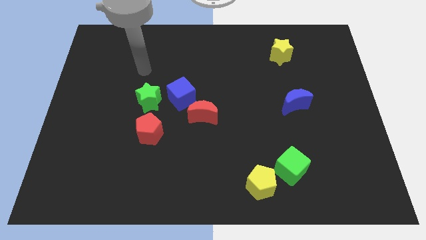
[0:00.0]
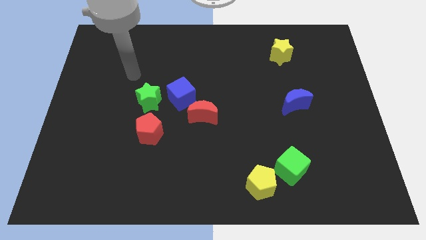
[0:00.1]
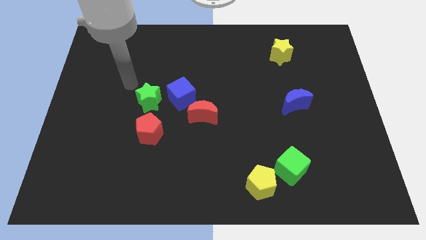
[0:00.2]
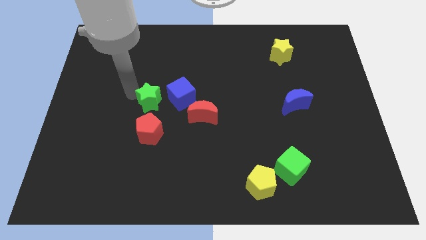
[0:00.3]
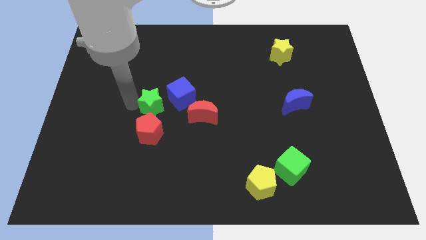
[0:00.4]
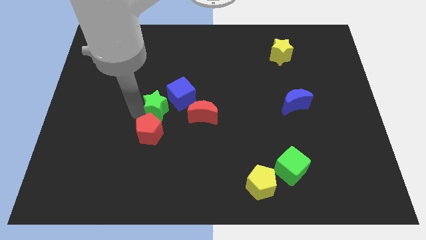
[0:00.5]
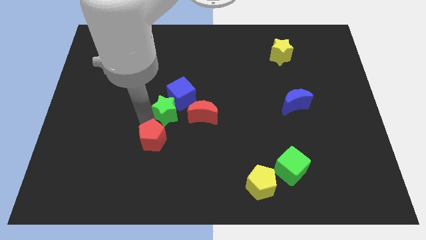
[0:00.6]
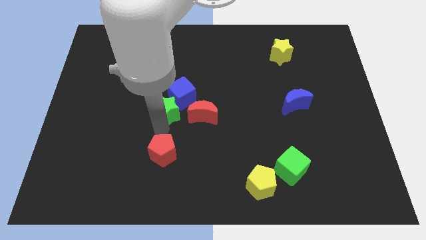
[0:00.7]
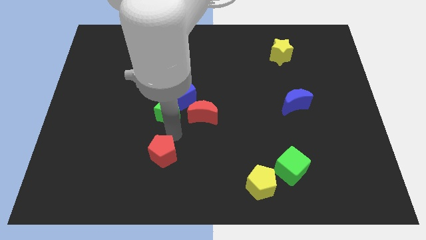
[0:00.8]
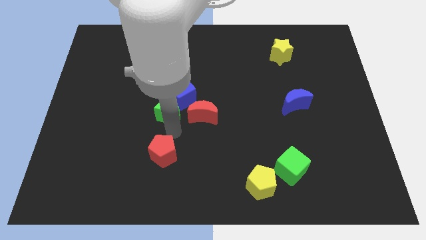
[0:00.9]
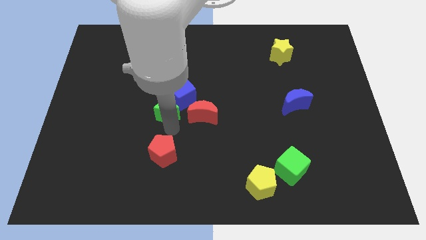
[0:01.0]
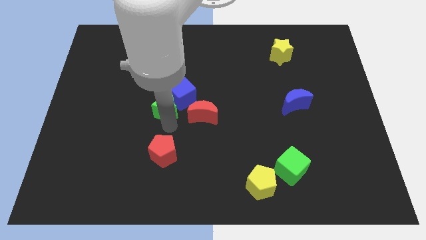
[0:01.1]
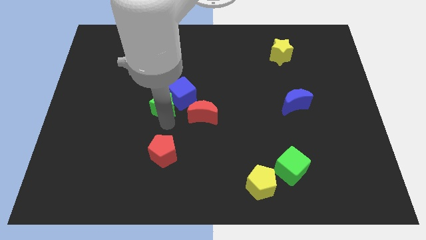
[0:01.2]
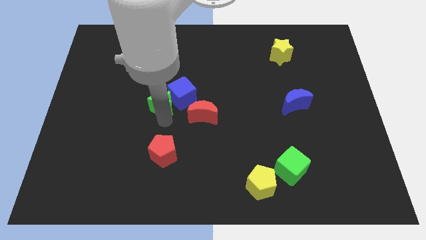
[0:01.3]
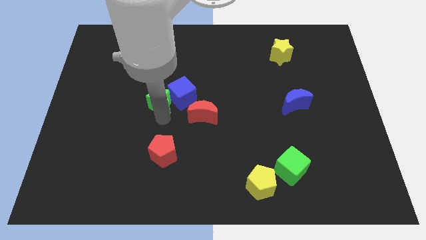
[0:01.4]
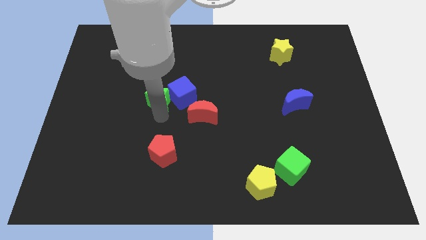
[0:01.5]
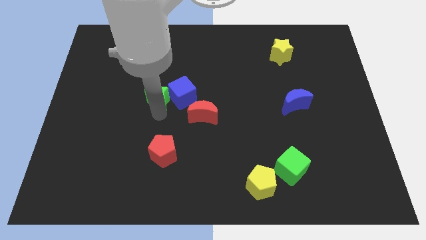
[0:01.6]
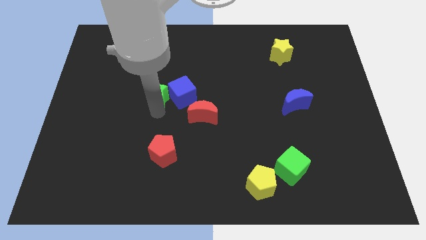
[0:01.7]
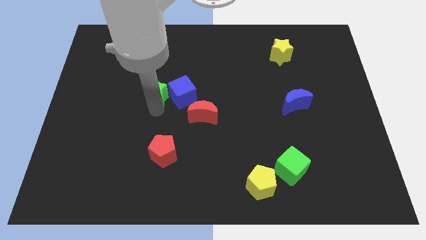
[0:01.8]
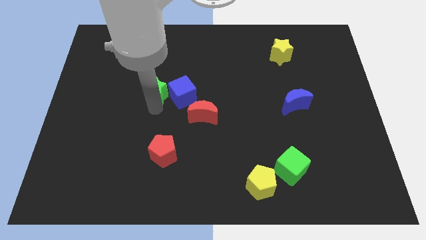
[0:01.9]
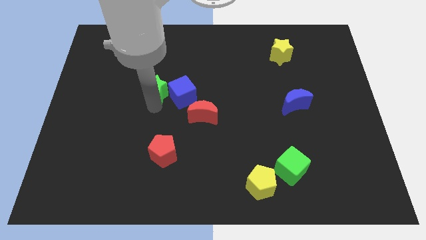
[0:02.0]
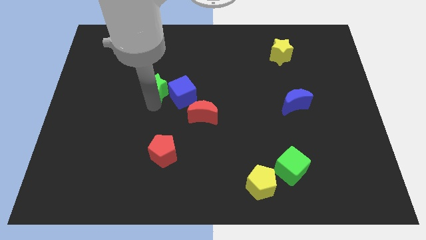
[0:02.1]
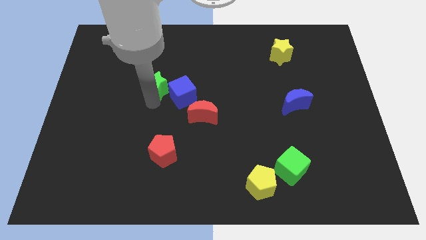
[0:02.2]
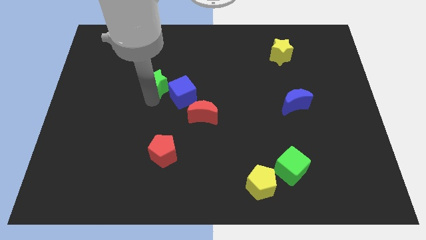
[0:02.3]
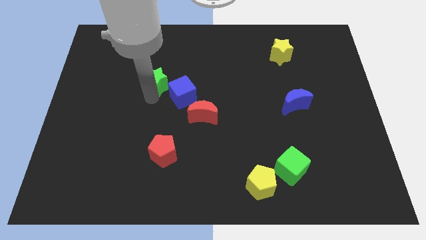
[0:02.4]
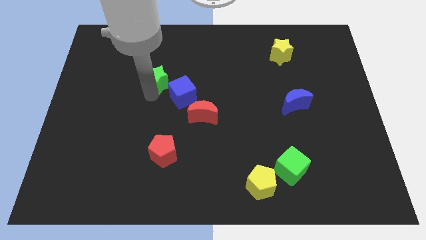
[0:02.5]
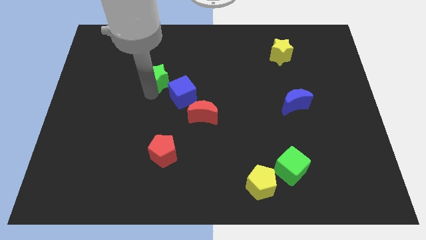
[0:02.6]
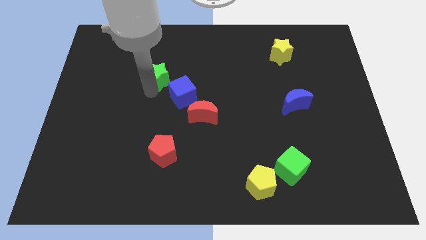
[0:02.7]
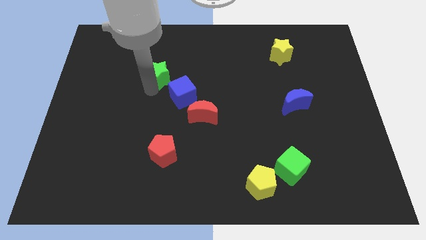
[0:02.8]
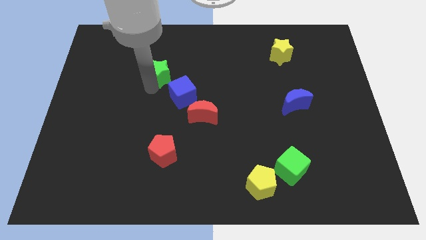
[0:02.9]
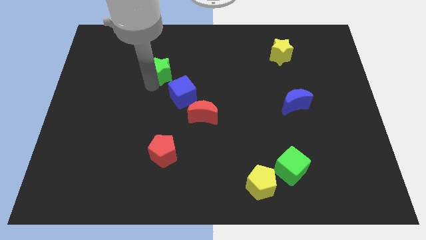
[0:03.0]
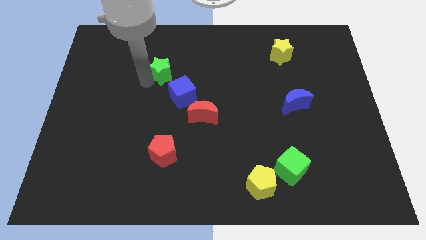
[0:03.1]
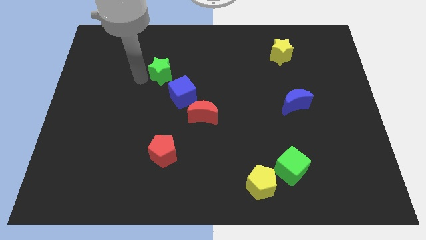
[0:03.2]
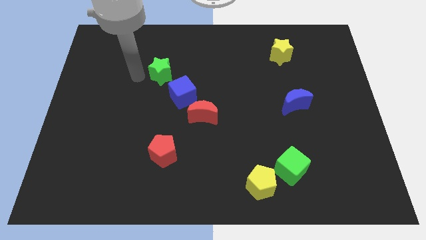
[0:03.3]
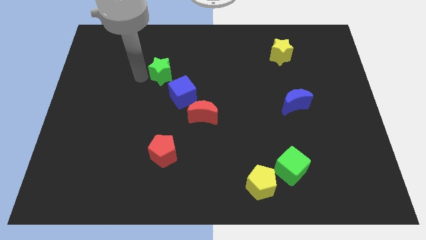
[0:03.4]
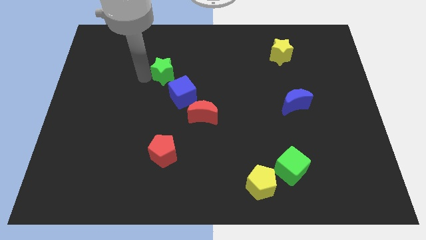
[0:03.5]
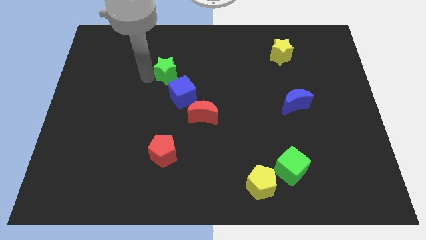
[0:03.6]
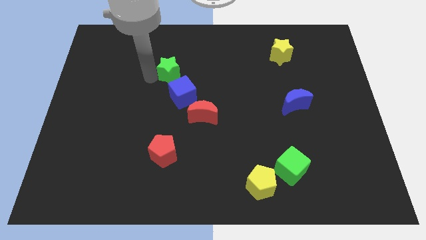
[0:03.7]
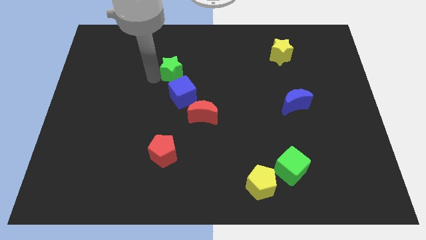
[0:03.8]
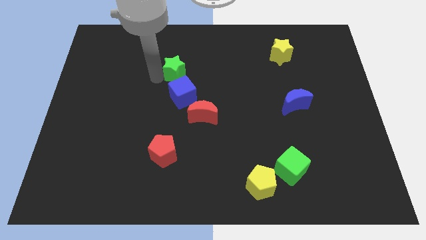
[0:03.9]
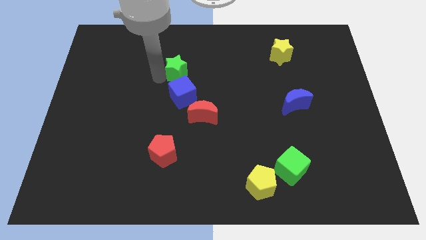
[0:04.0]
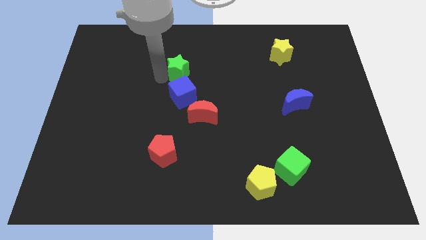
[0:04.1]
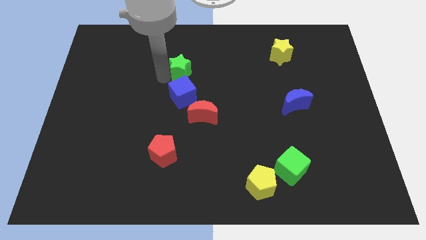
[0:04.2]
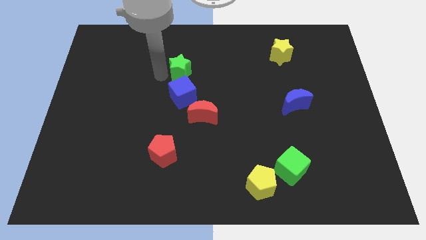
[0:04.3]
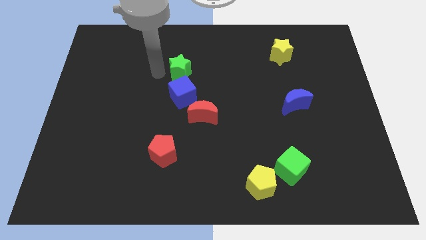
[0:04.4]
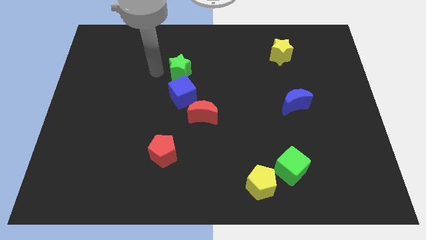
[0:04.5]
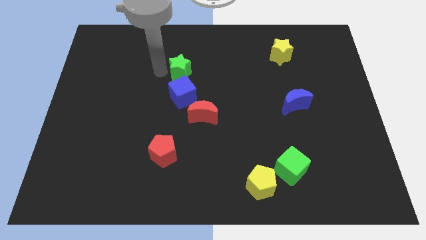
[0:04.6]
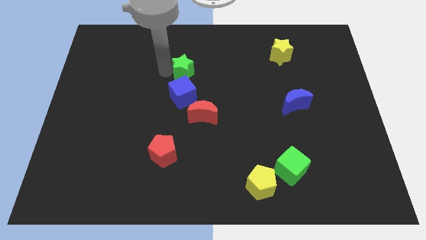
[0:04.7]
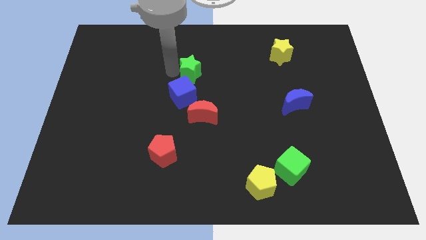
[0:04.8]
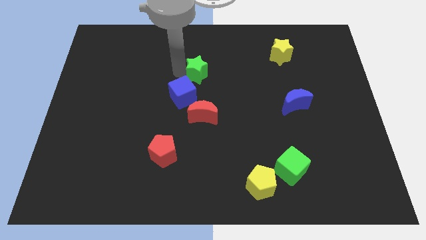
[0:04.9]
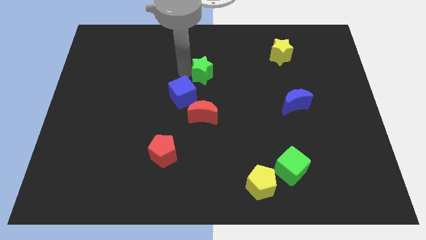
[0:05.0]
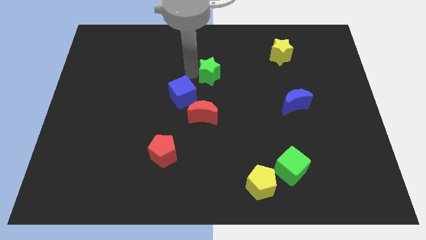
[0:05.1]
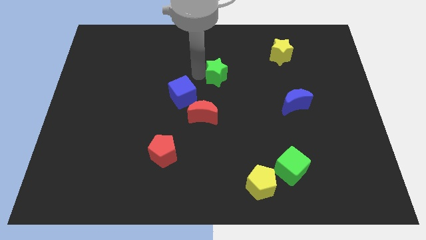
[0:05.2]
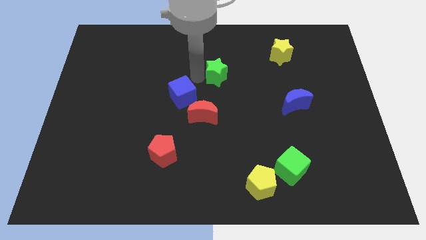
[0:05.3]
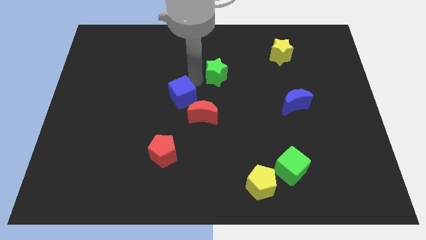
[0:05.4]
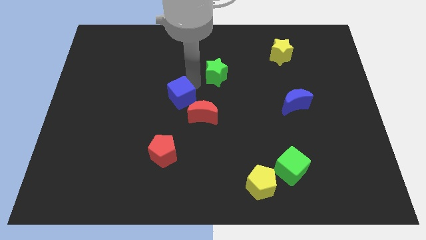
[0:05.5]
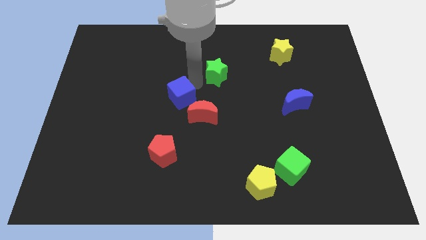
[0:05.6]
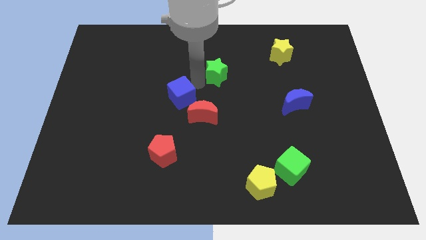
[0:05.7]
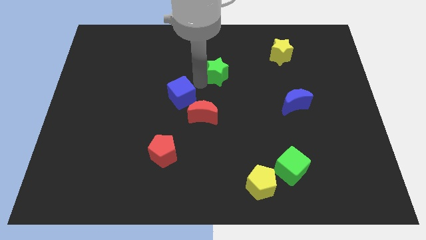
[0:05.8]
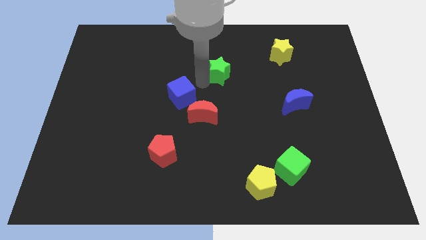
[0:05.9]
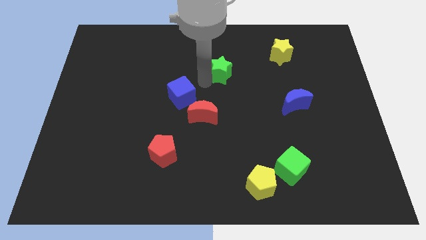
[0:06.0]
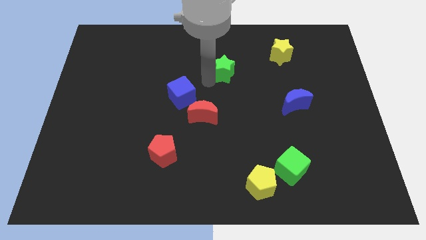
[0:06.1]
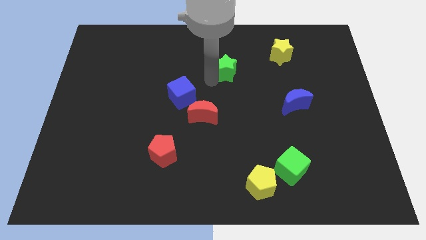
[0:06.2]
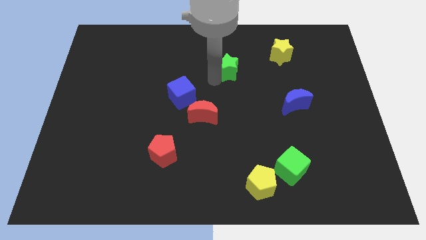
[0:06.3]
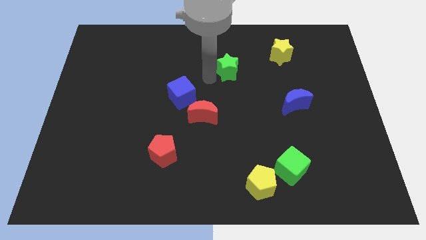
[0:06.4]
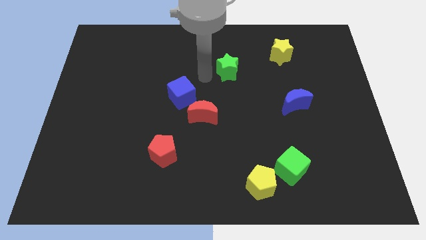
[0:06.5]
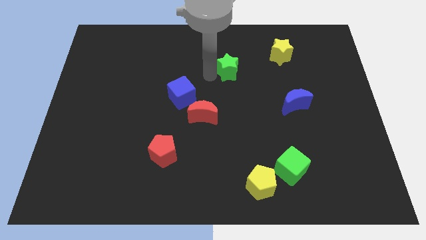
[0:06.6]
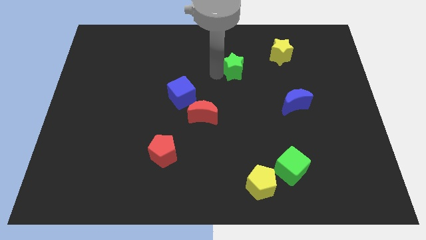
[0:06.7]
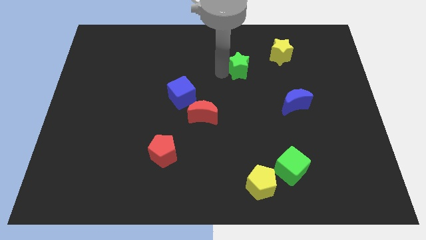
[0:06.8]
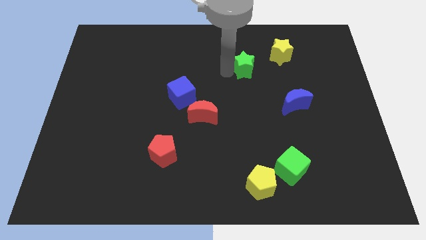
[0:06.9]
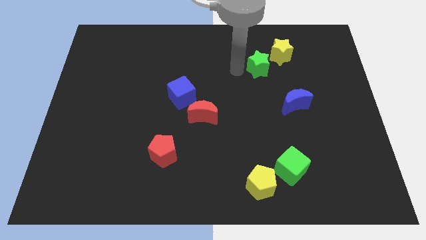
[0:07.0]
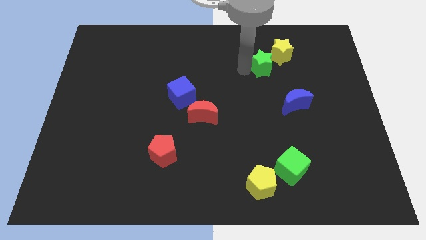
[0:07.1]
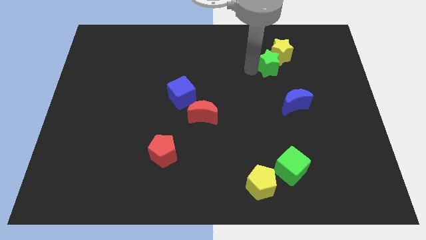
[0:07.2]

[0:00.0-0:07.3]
put the green star to the yellow star

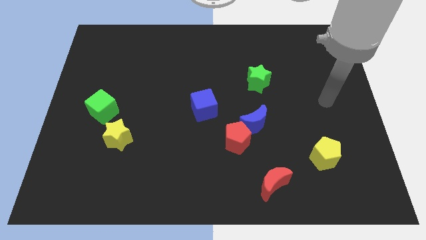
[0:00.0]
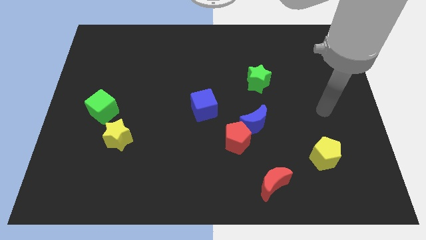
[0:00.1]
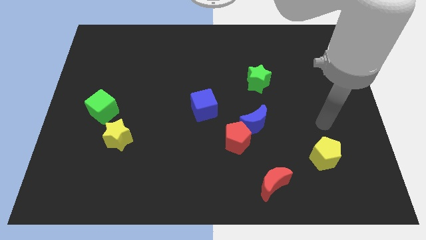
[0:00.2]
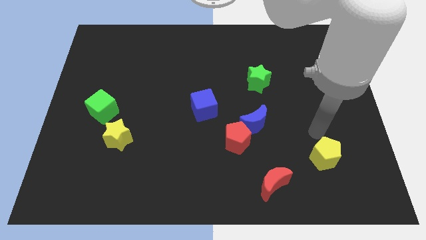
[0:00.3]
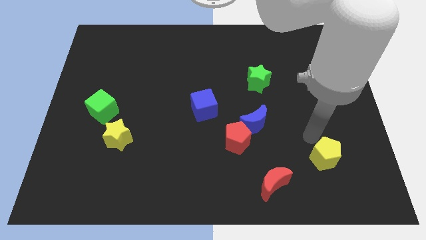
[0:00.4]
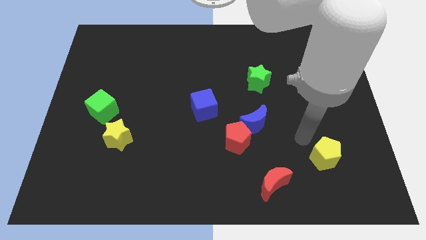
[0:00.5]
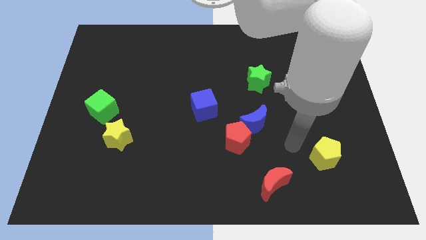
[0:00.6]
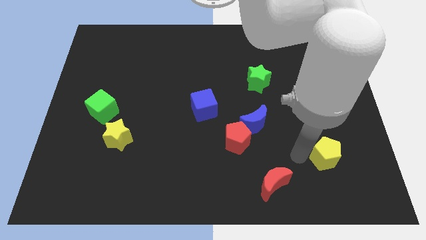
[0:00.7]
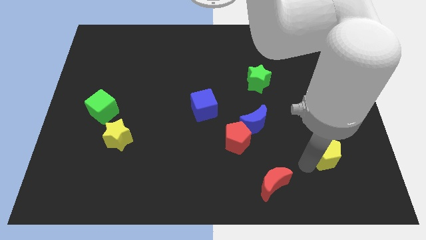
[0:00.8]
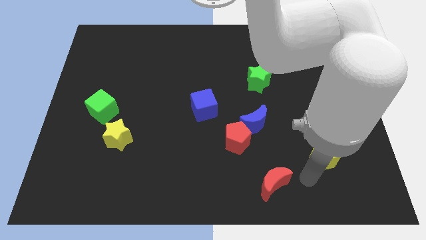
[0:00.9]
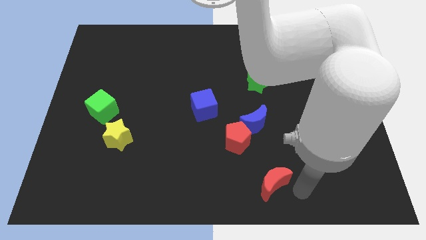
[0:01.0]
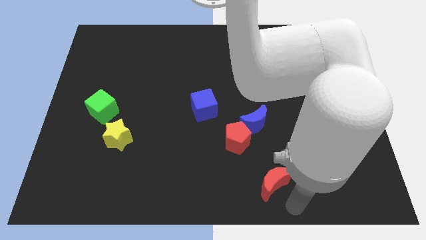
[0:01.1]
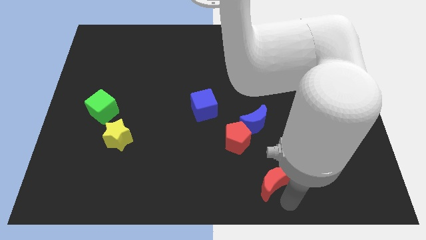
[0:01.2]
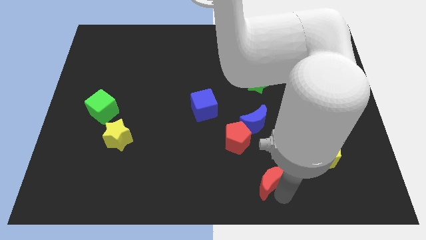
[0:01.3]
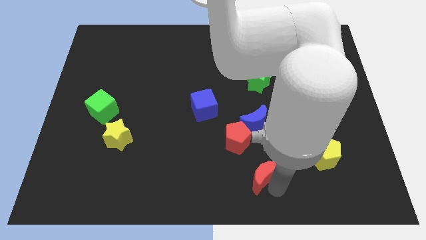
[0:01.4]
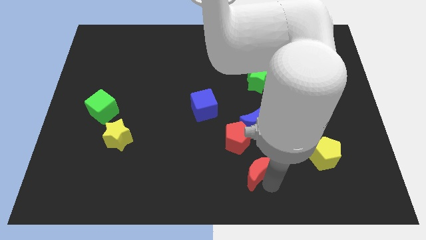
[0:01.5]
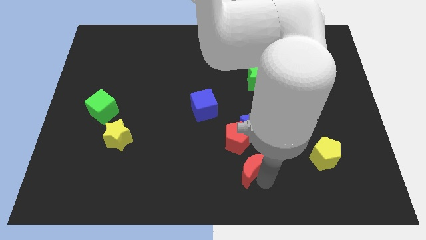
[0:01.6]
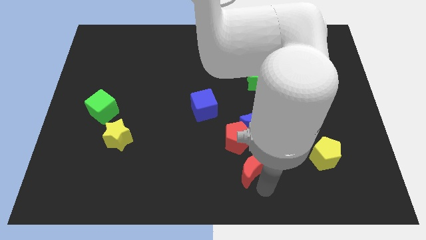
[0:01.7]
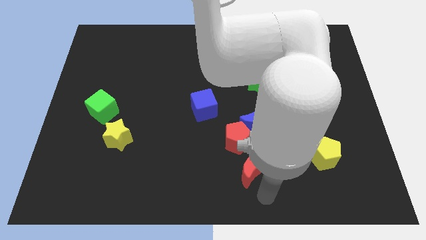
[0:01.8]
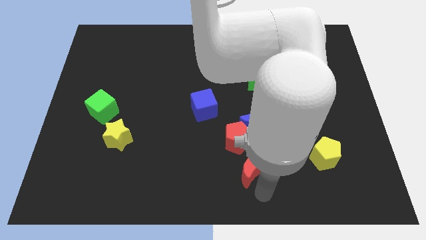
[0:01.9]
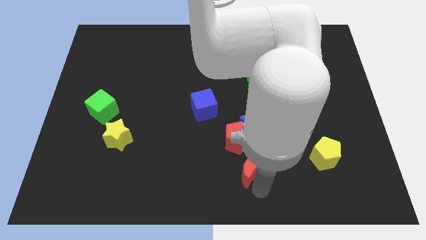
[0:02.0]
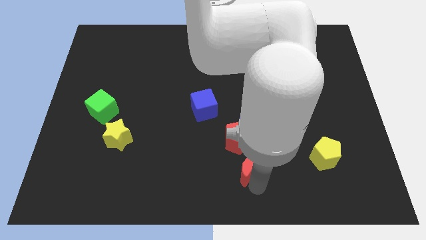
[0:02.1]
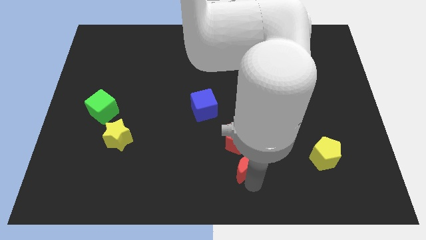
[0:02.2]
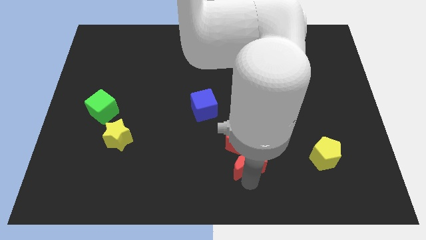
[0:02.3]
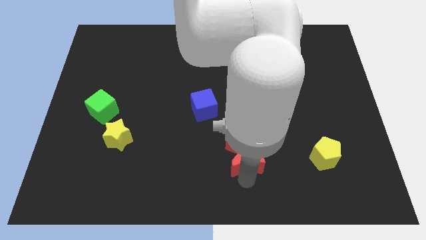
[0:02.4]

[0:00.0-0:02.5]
push the red moon towards the red pentagon
